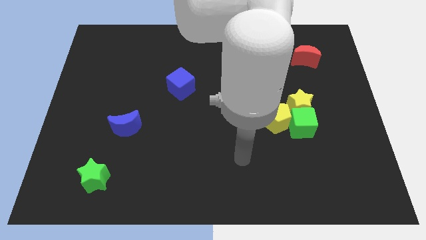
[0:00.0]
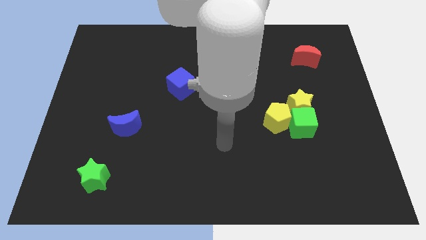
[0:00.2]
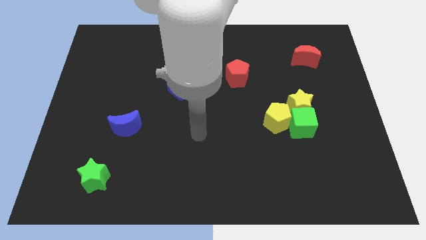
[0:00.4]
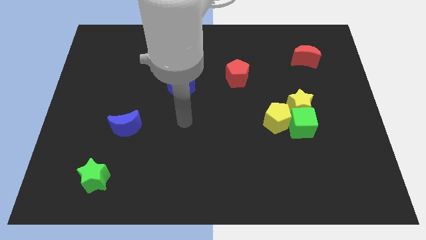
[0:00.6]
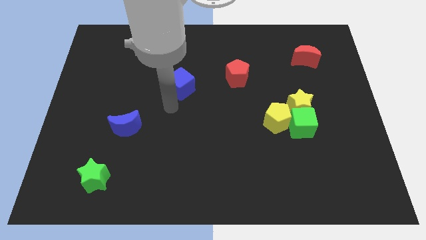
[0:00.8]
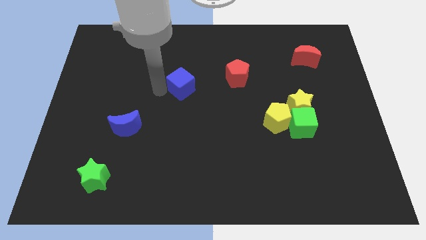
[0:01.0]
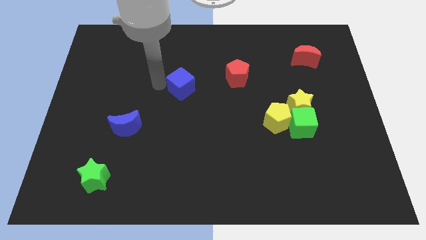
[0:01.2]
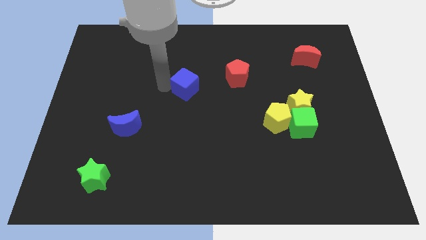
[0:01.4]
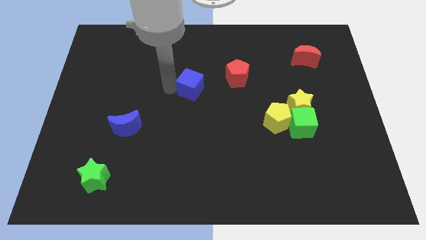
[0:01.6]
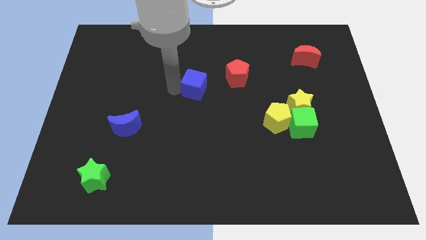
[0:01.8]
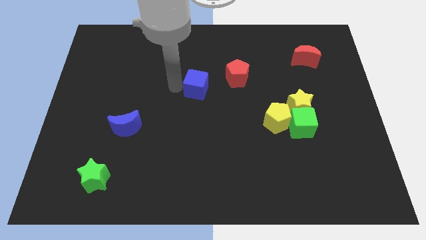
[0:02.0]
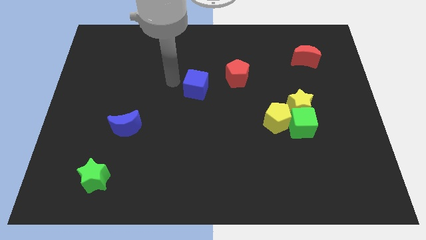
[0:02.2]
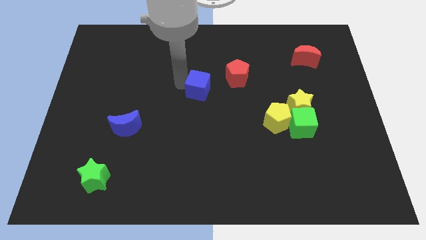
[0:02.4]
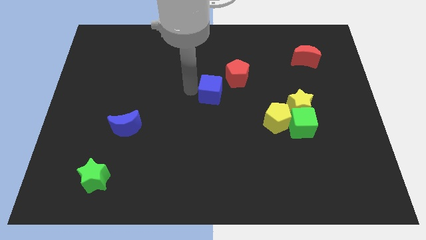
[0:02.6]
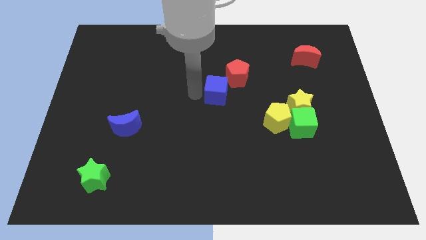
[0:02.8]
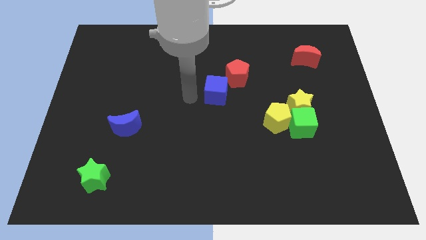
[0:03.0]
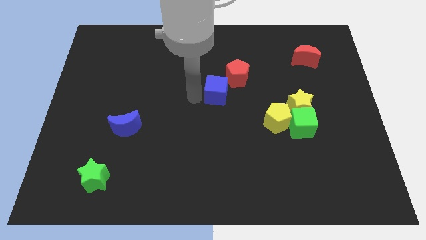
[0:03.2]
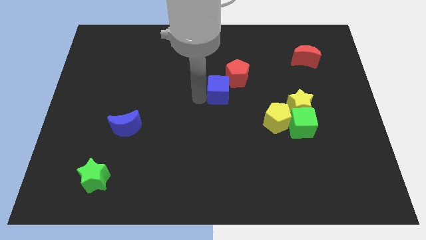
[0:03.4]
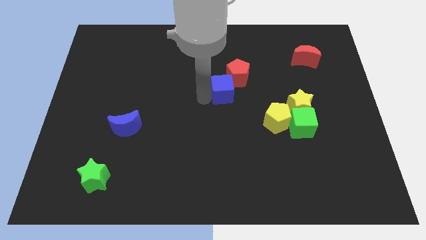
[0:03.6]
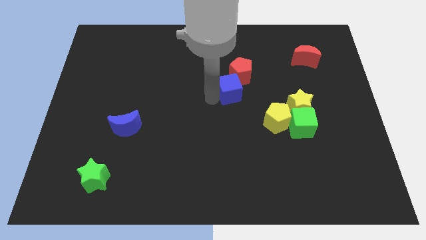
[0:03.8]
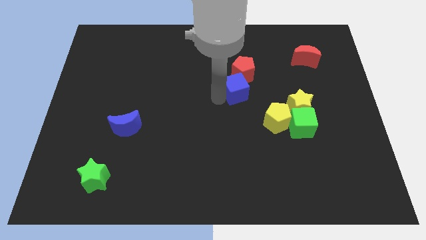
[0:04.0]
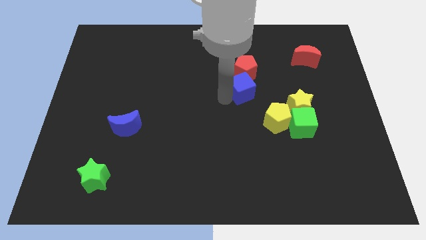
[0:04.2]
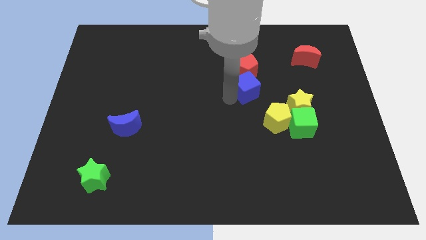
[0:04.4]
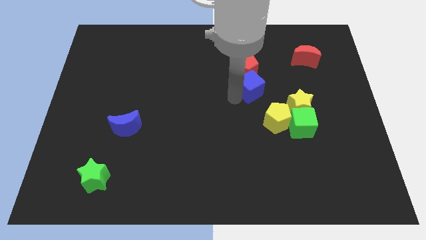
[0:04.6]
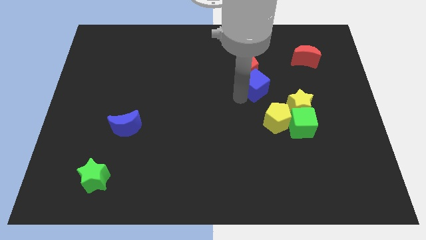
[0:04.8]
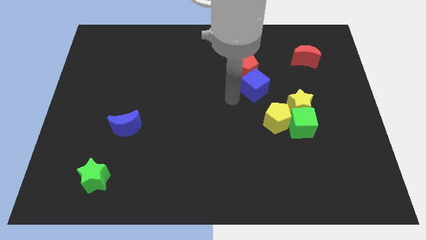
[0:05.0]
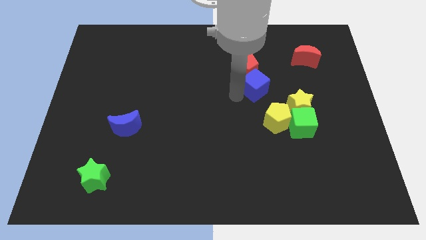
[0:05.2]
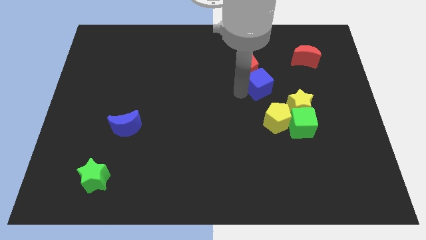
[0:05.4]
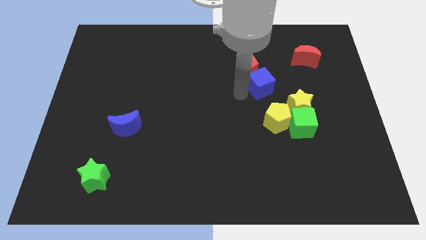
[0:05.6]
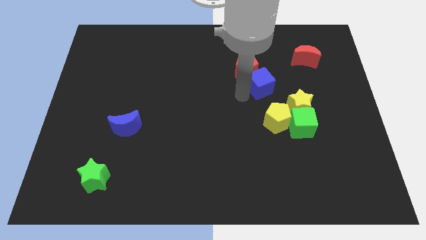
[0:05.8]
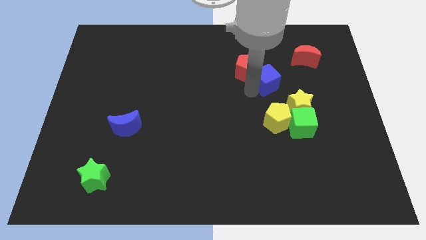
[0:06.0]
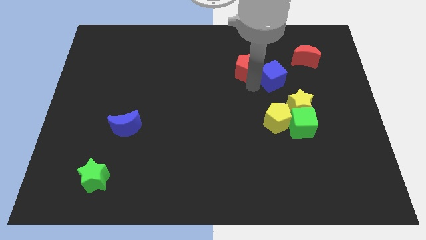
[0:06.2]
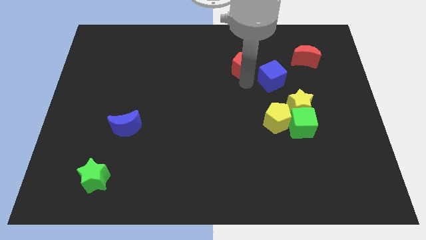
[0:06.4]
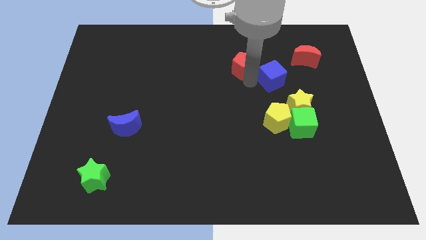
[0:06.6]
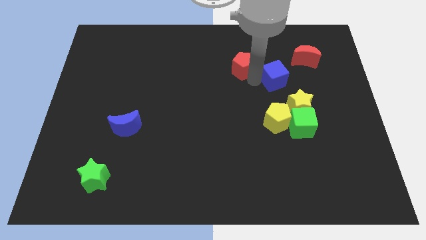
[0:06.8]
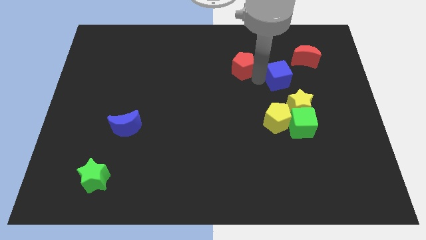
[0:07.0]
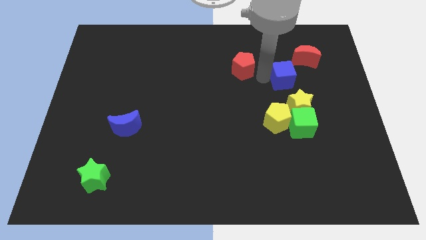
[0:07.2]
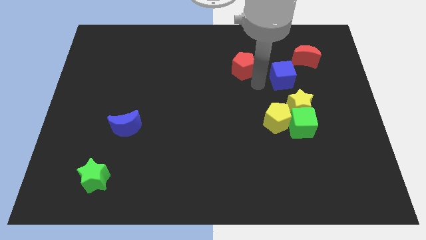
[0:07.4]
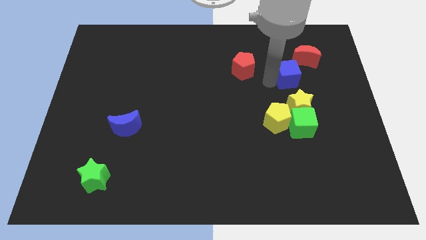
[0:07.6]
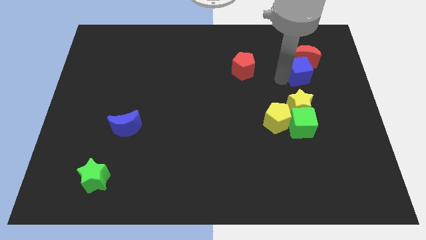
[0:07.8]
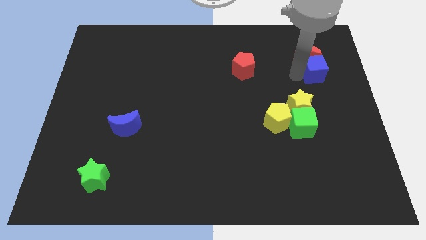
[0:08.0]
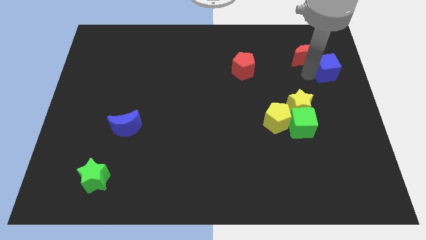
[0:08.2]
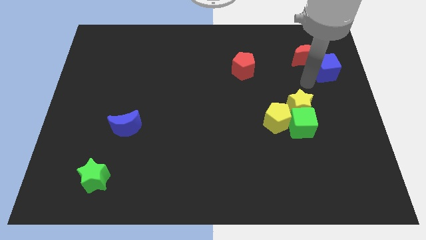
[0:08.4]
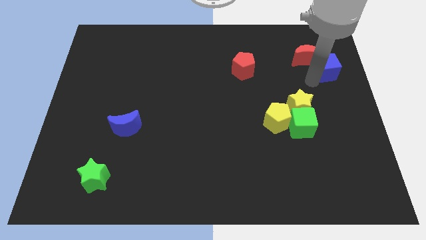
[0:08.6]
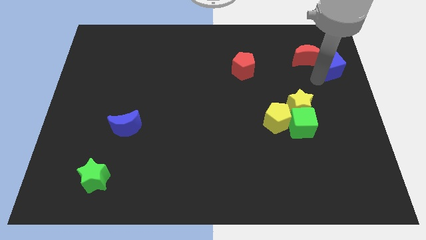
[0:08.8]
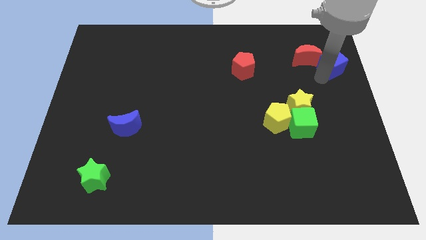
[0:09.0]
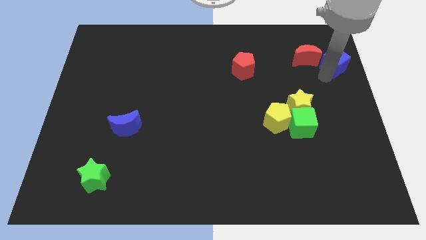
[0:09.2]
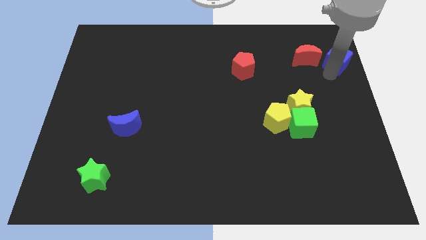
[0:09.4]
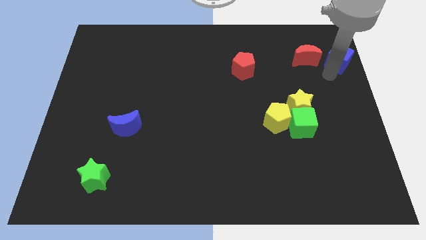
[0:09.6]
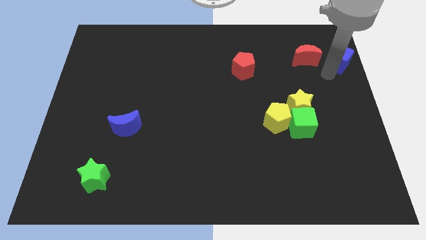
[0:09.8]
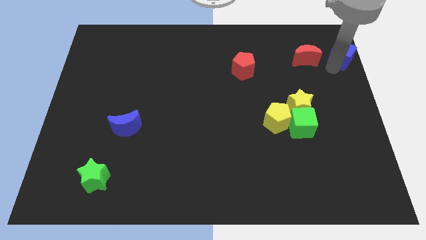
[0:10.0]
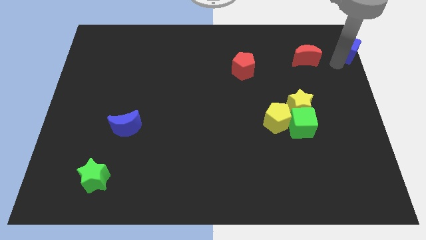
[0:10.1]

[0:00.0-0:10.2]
move the blue cube to the top right corner

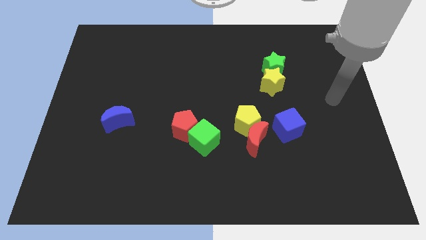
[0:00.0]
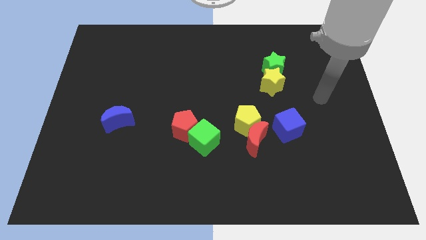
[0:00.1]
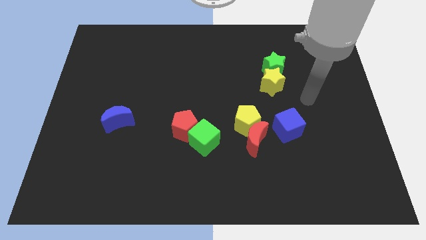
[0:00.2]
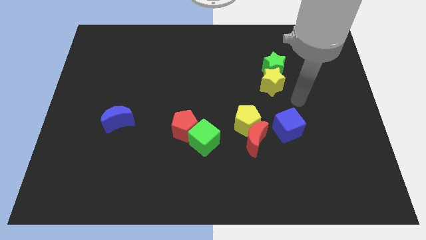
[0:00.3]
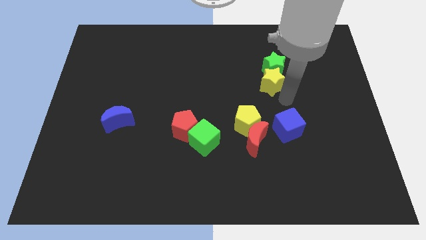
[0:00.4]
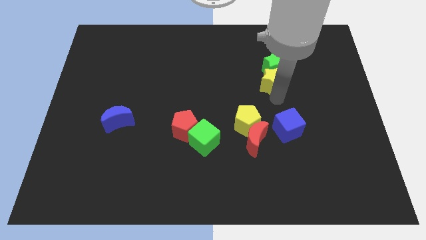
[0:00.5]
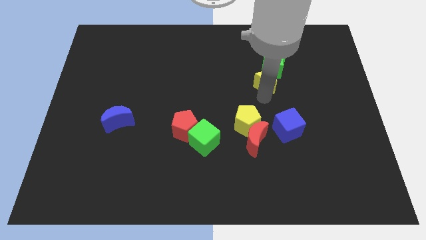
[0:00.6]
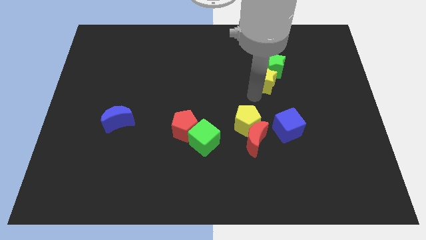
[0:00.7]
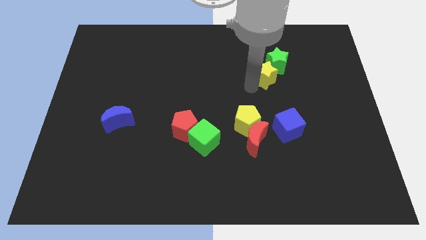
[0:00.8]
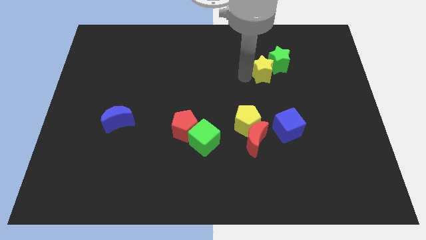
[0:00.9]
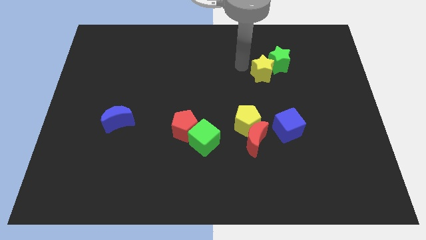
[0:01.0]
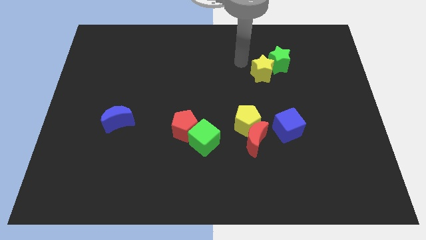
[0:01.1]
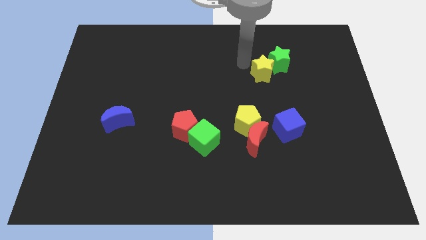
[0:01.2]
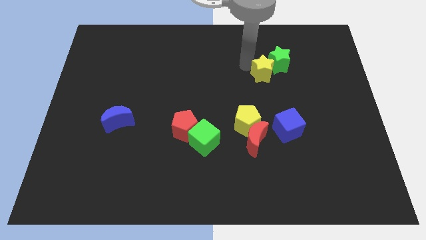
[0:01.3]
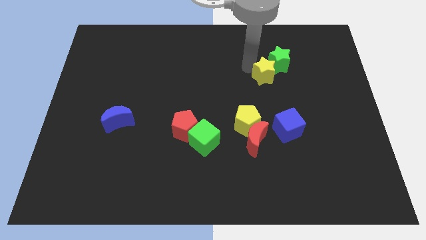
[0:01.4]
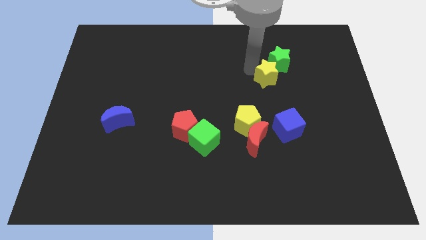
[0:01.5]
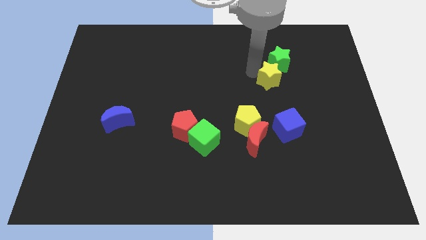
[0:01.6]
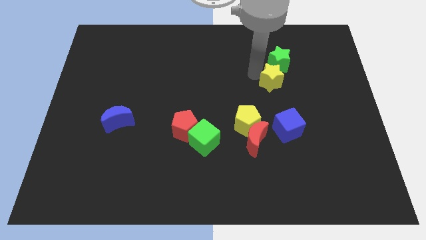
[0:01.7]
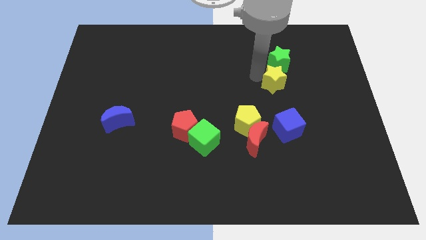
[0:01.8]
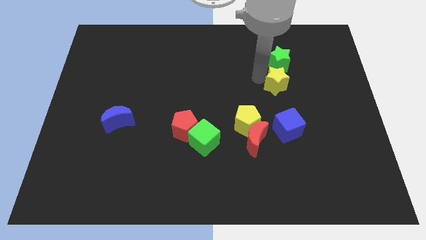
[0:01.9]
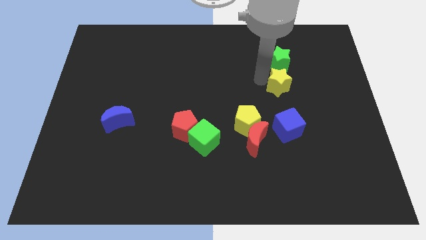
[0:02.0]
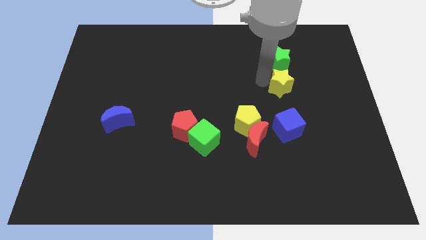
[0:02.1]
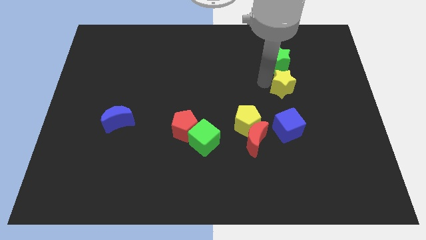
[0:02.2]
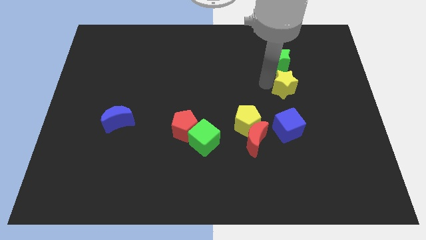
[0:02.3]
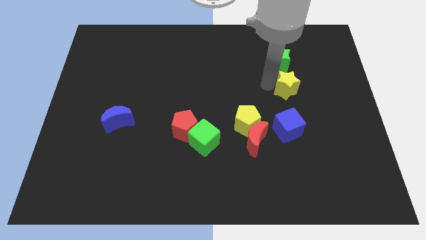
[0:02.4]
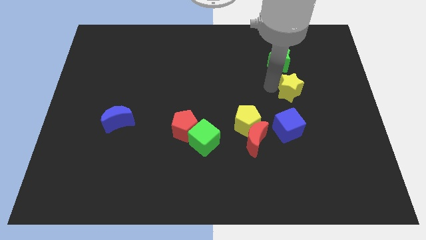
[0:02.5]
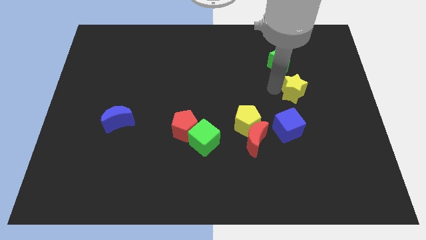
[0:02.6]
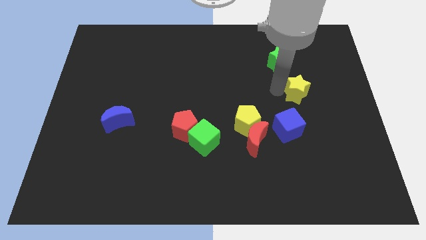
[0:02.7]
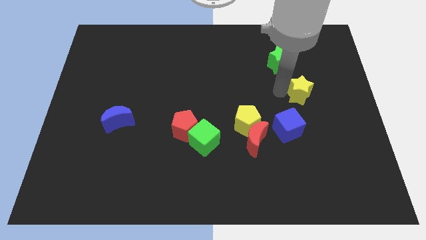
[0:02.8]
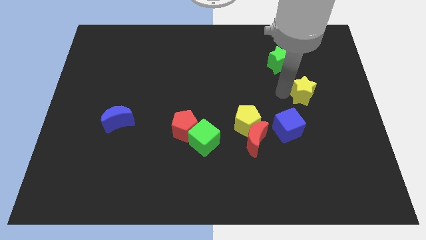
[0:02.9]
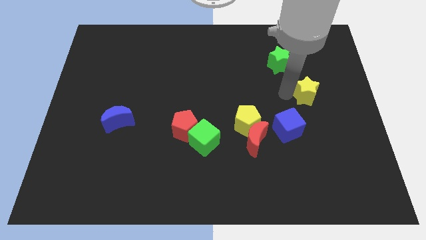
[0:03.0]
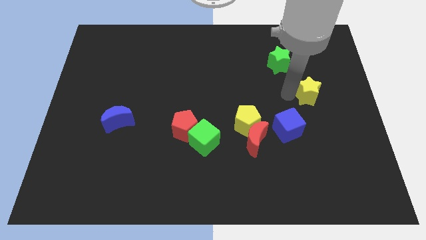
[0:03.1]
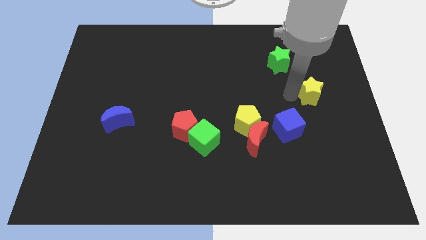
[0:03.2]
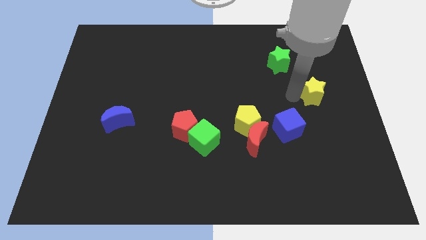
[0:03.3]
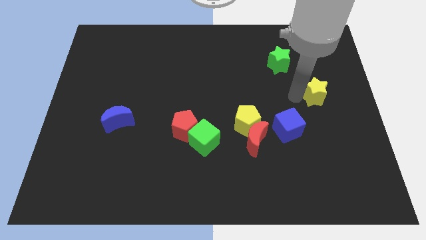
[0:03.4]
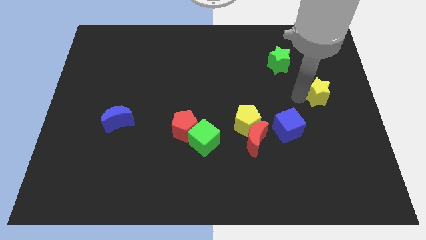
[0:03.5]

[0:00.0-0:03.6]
move the yellow star to the right side
